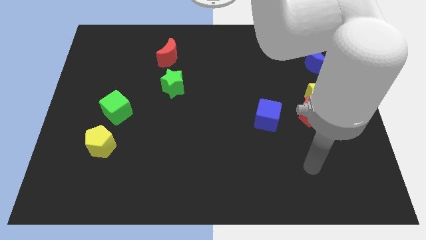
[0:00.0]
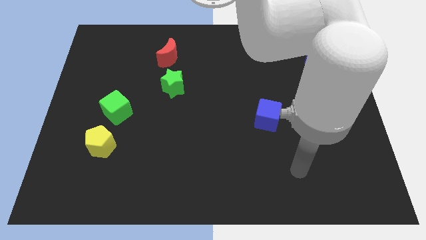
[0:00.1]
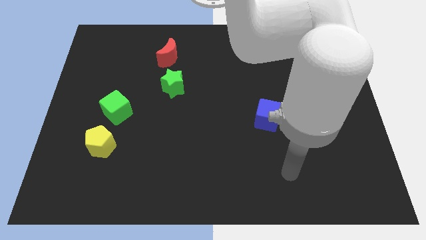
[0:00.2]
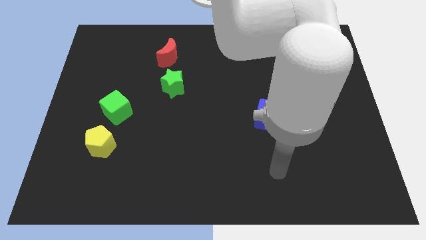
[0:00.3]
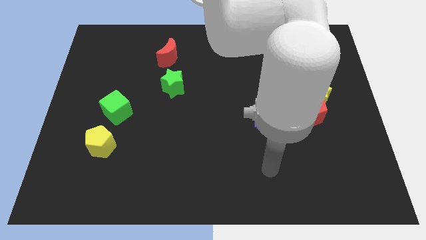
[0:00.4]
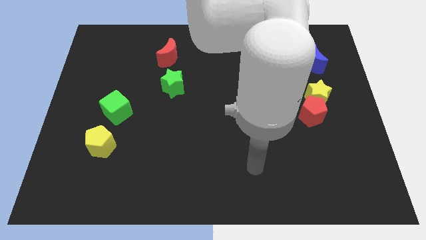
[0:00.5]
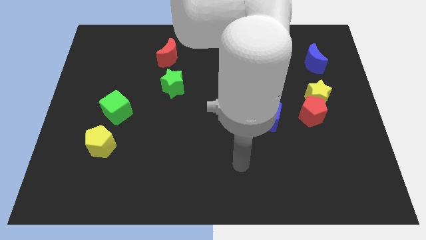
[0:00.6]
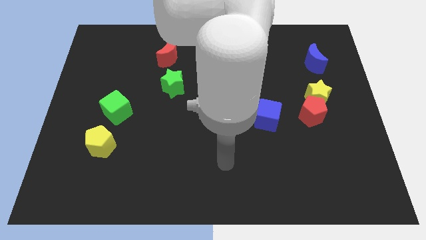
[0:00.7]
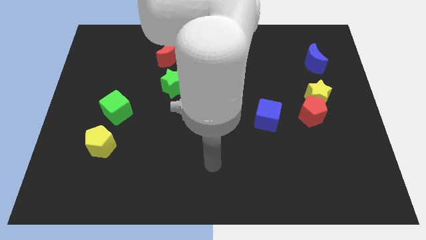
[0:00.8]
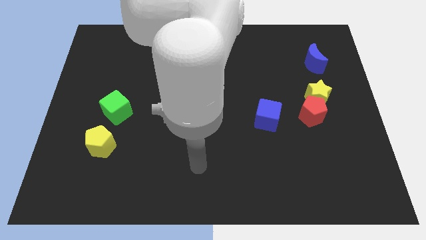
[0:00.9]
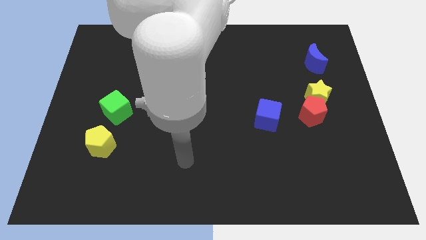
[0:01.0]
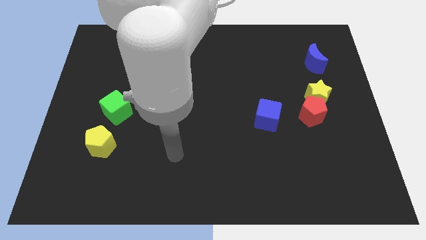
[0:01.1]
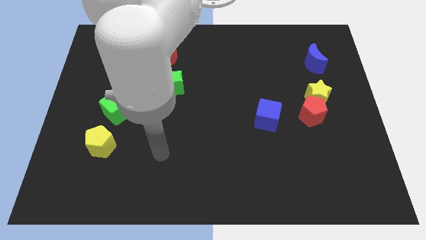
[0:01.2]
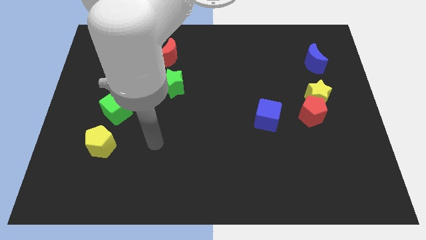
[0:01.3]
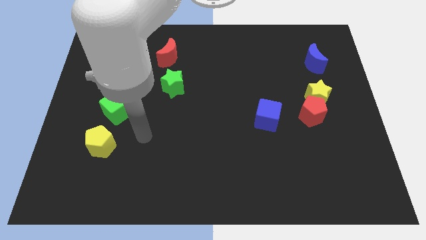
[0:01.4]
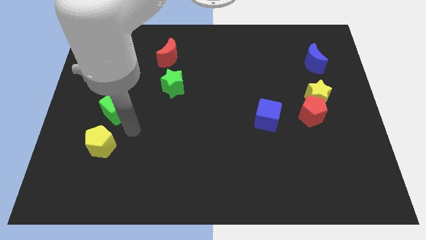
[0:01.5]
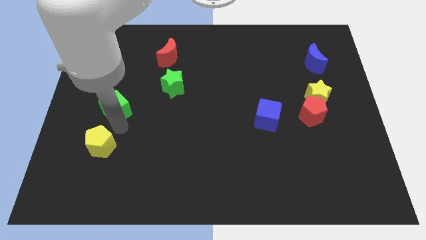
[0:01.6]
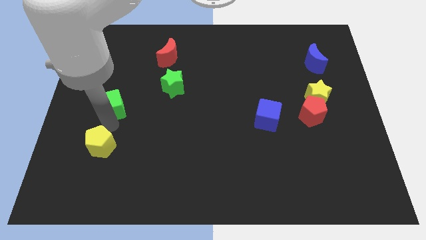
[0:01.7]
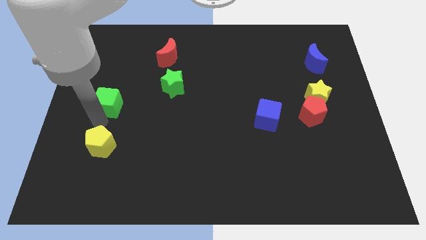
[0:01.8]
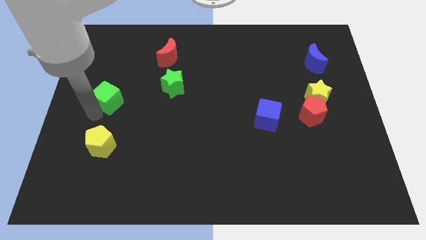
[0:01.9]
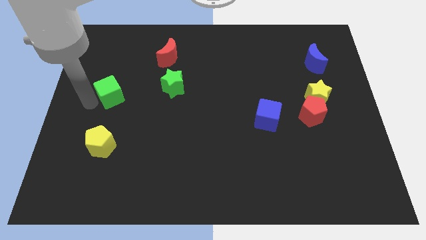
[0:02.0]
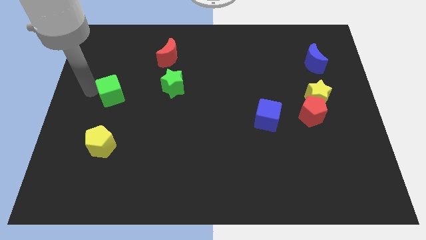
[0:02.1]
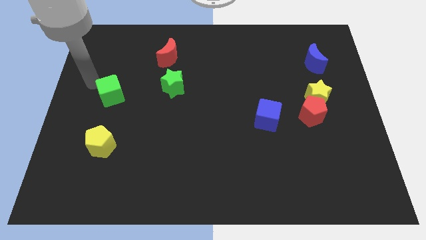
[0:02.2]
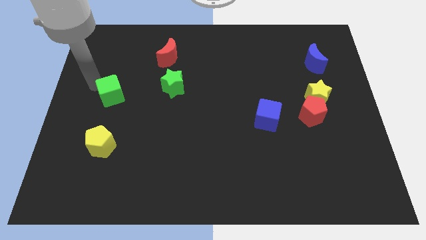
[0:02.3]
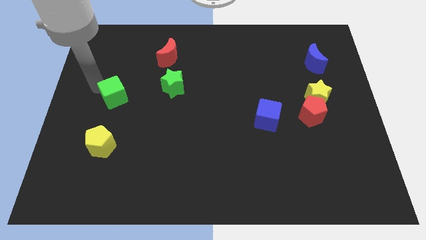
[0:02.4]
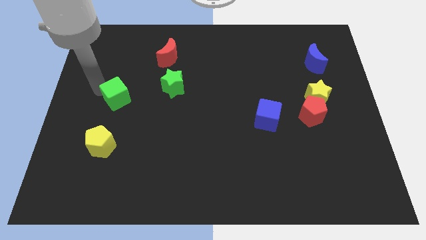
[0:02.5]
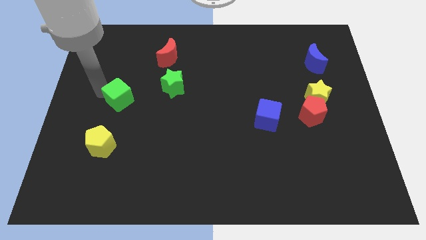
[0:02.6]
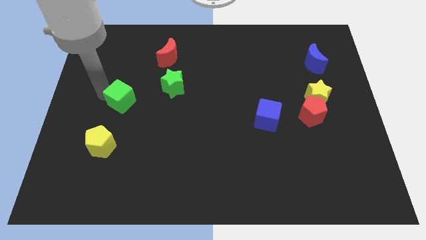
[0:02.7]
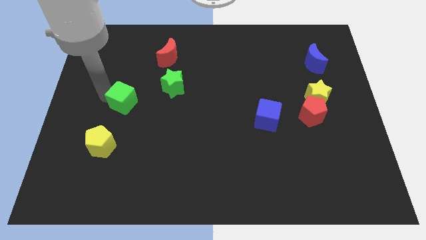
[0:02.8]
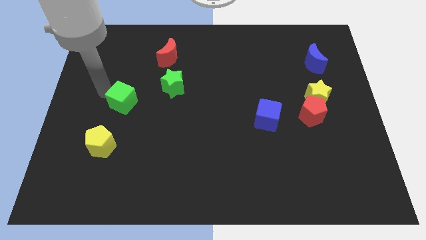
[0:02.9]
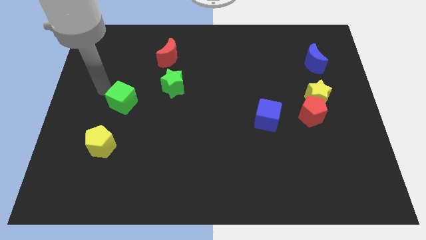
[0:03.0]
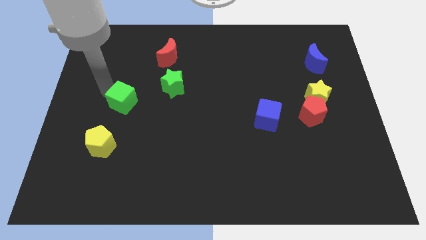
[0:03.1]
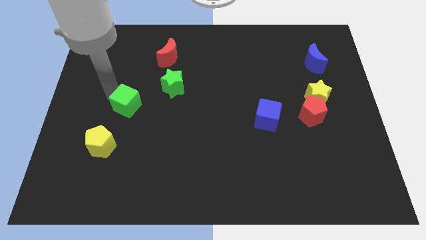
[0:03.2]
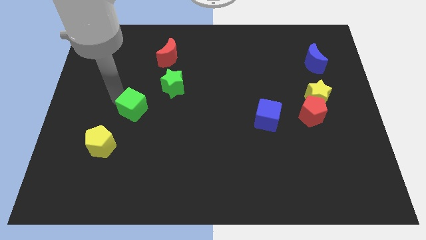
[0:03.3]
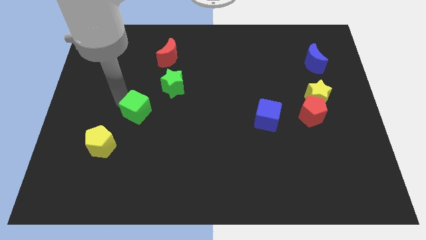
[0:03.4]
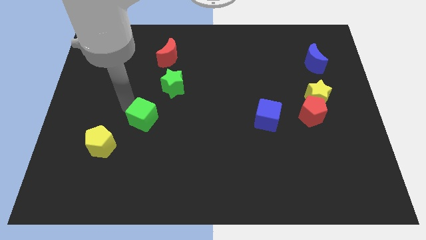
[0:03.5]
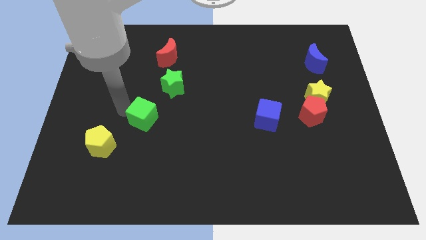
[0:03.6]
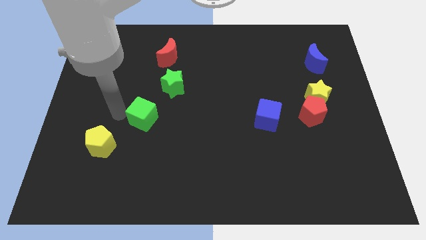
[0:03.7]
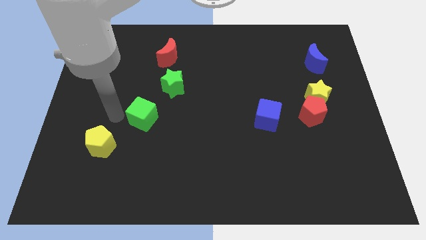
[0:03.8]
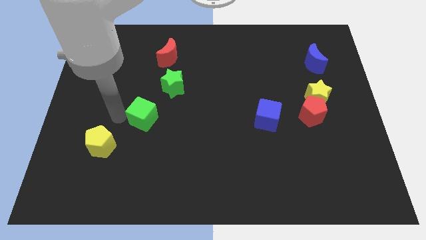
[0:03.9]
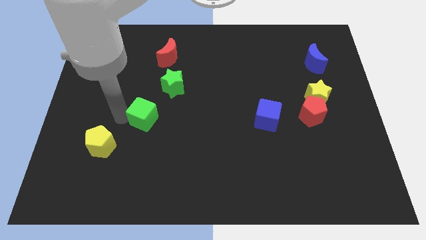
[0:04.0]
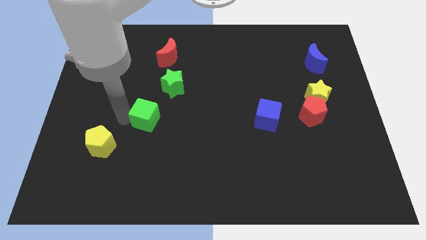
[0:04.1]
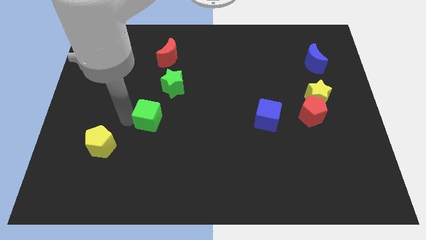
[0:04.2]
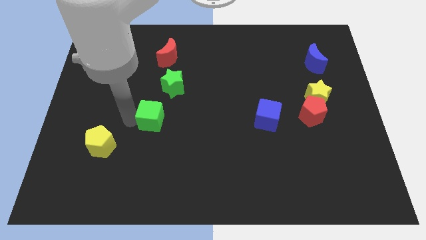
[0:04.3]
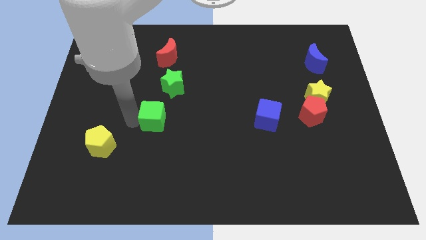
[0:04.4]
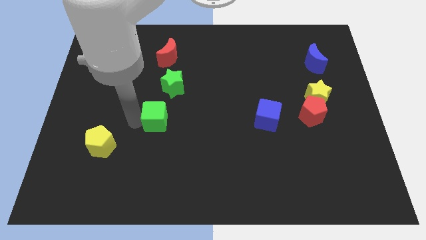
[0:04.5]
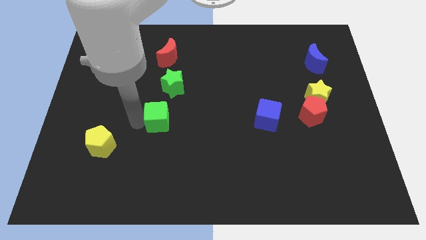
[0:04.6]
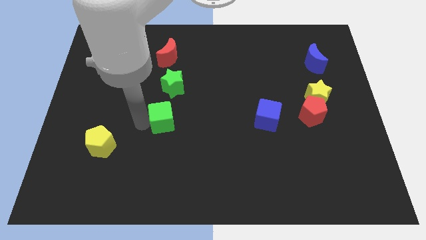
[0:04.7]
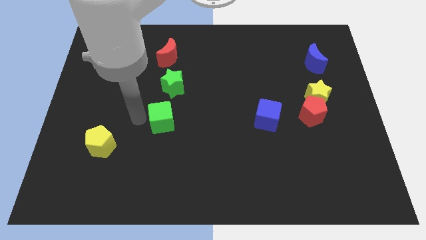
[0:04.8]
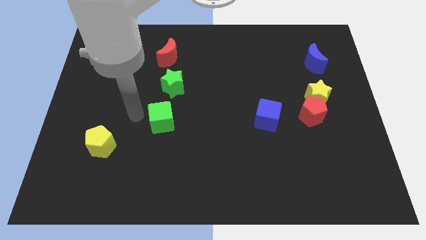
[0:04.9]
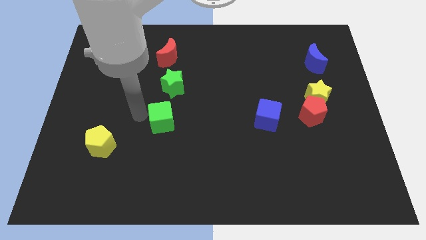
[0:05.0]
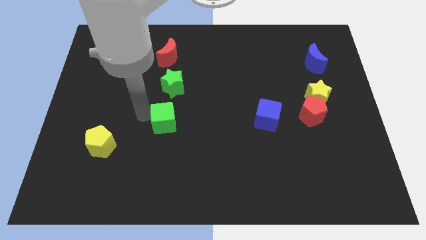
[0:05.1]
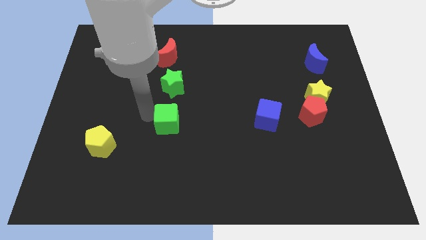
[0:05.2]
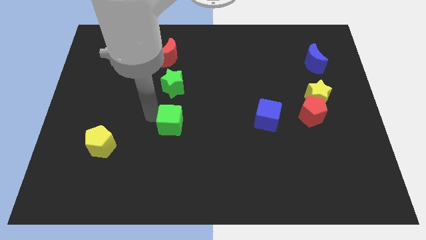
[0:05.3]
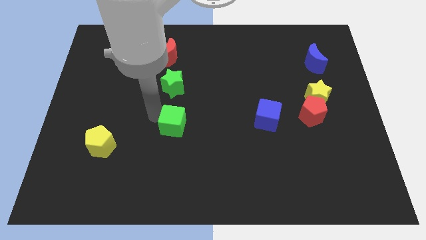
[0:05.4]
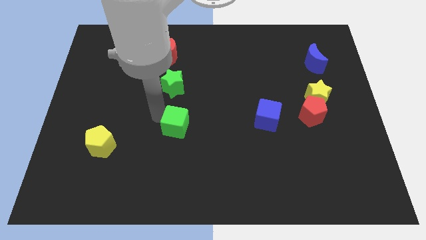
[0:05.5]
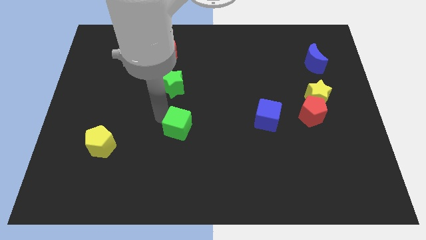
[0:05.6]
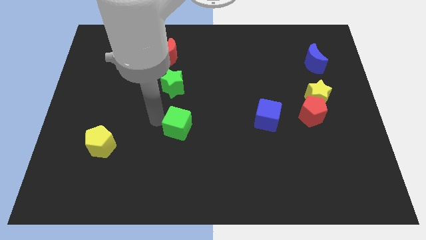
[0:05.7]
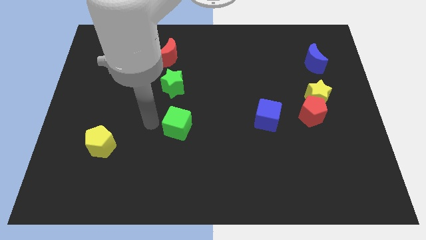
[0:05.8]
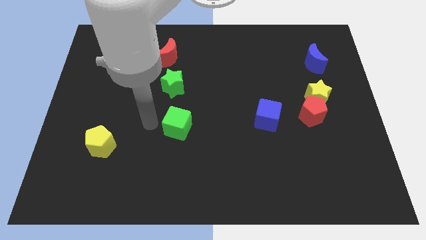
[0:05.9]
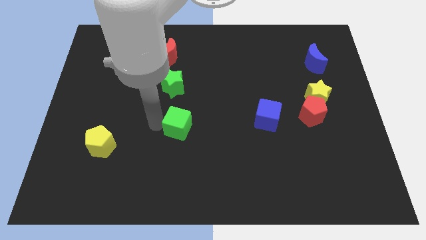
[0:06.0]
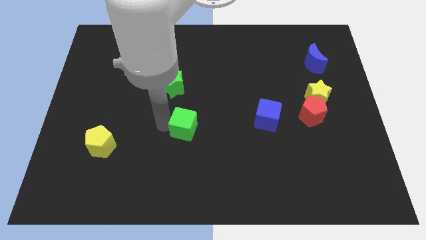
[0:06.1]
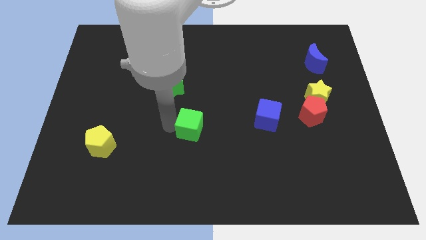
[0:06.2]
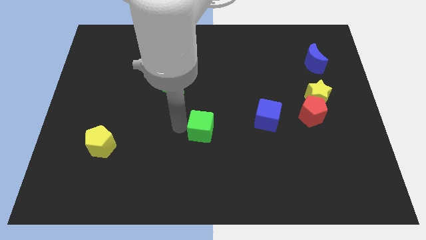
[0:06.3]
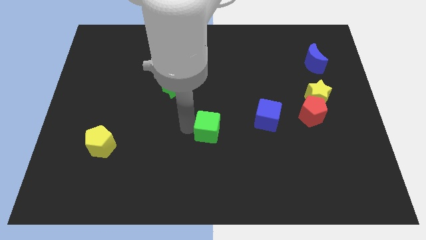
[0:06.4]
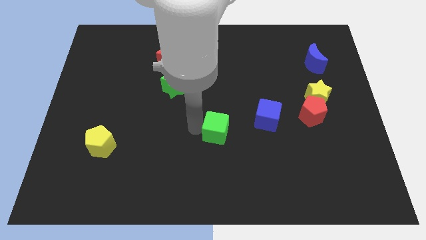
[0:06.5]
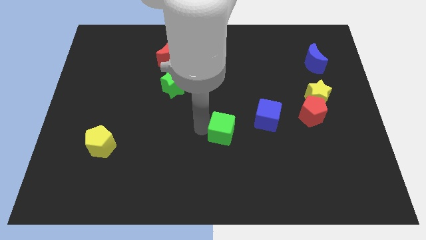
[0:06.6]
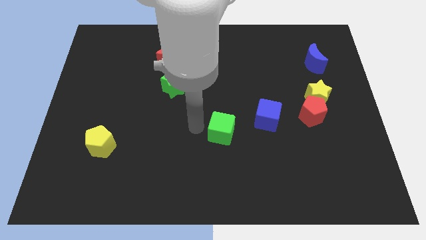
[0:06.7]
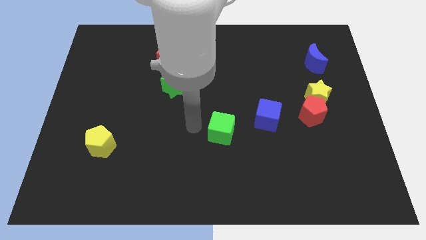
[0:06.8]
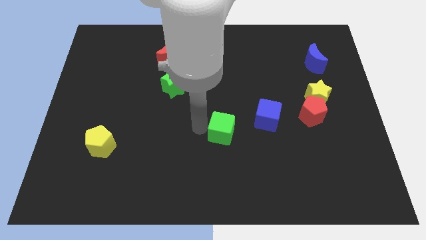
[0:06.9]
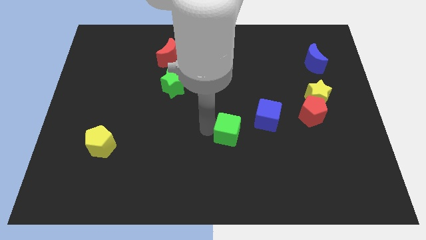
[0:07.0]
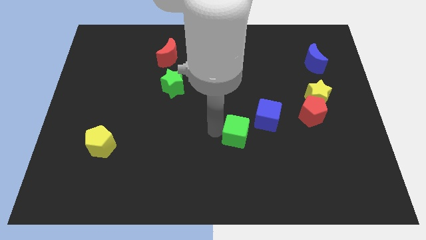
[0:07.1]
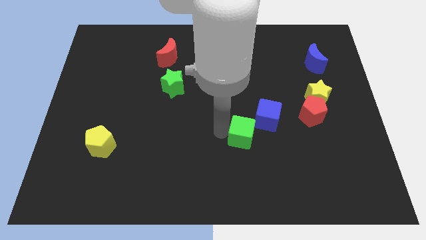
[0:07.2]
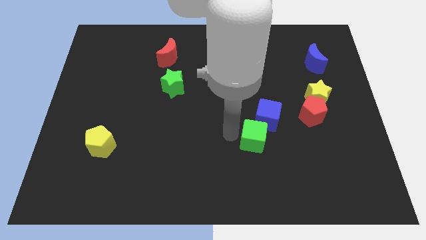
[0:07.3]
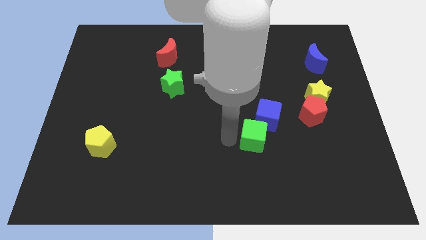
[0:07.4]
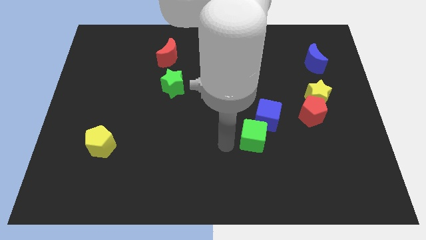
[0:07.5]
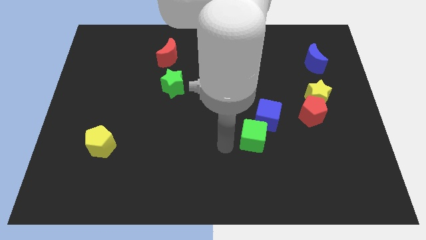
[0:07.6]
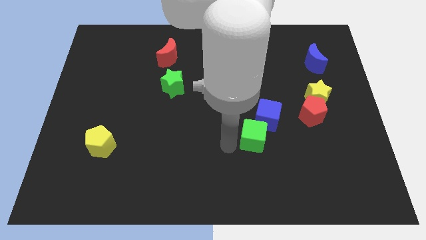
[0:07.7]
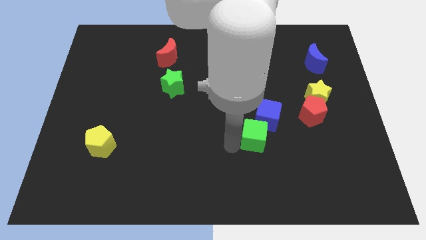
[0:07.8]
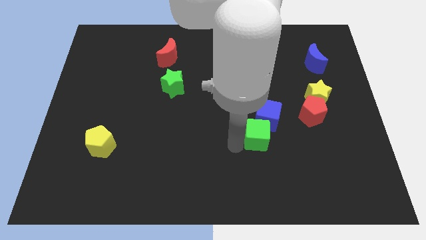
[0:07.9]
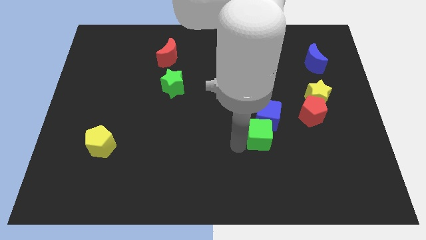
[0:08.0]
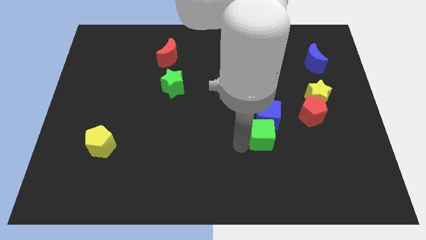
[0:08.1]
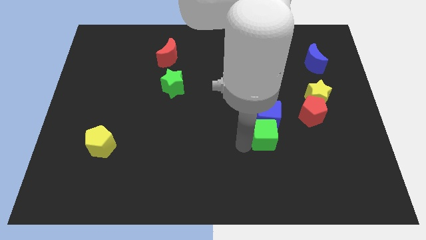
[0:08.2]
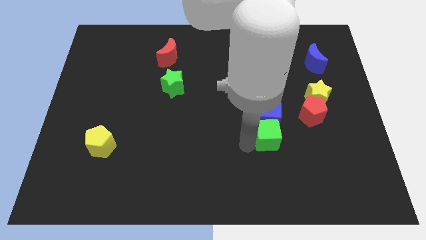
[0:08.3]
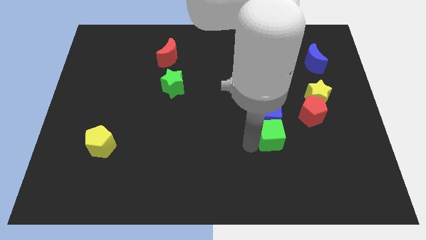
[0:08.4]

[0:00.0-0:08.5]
move the green cube diagonally down and to the left of the red pentagon
